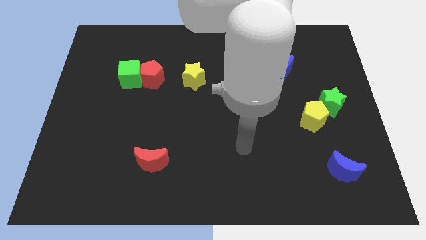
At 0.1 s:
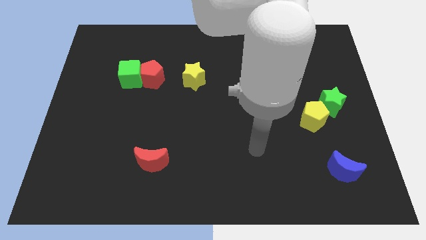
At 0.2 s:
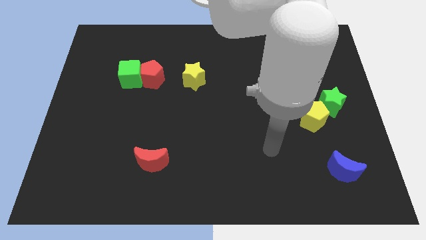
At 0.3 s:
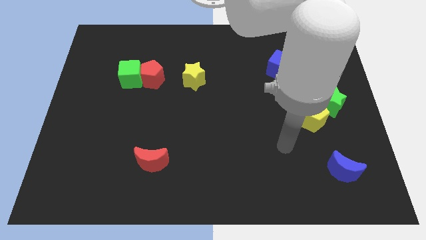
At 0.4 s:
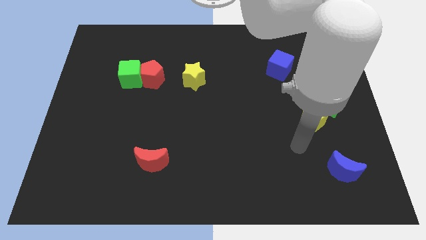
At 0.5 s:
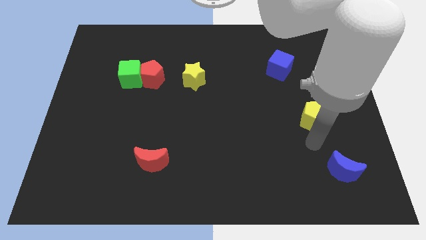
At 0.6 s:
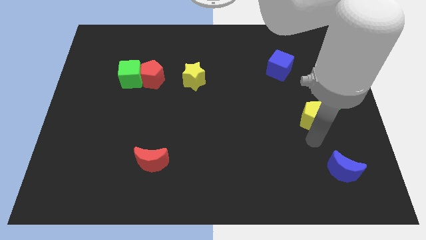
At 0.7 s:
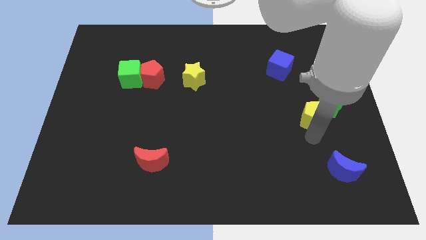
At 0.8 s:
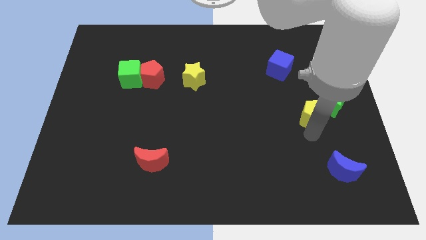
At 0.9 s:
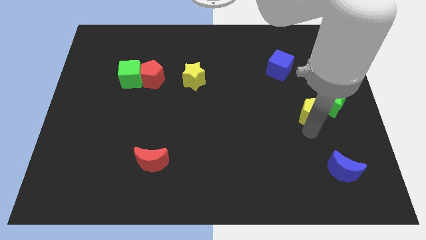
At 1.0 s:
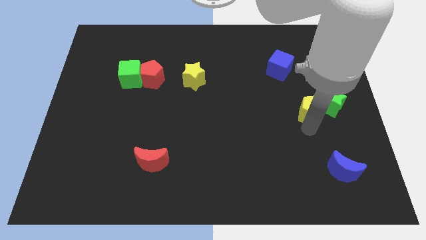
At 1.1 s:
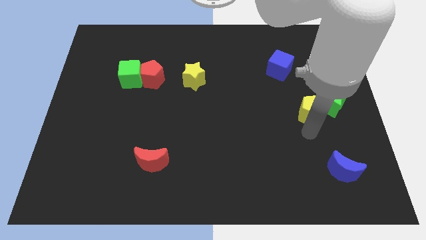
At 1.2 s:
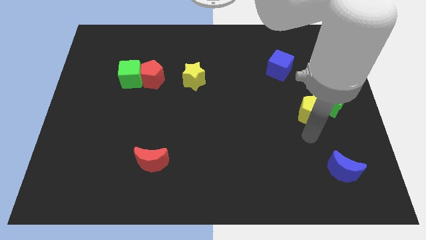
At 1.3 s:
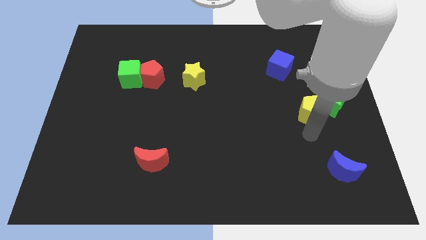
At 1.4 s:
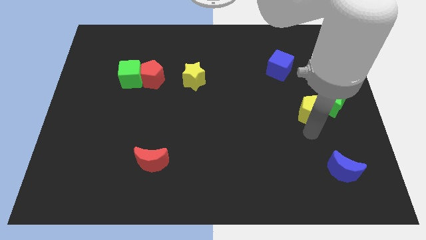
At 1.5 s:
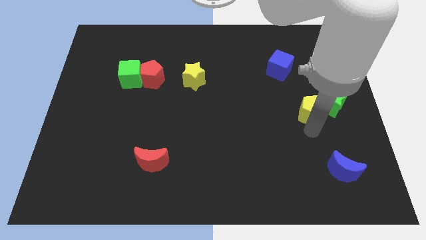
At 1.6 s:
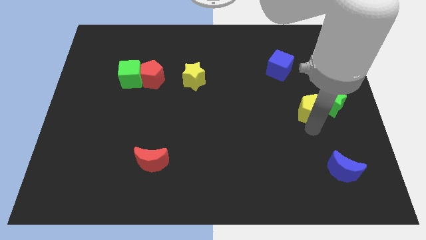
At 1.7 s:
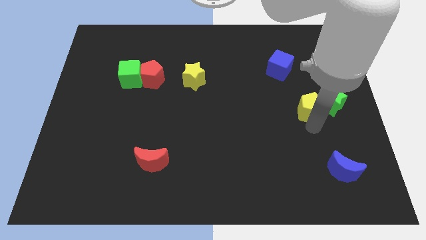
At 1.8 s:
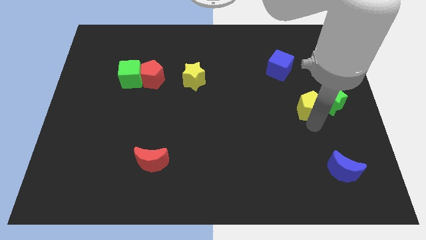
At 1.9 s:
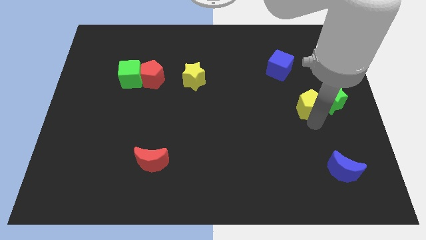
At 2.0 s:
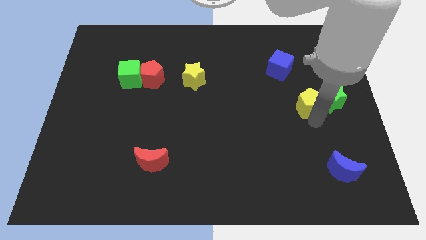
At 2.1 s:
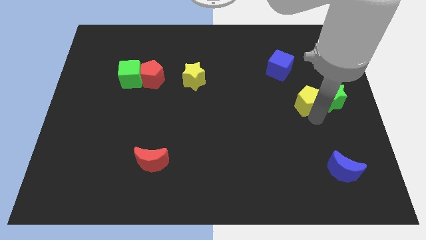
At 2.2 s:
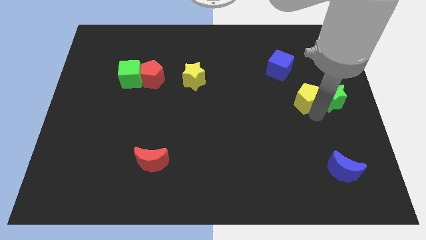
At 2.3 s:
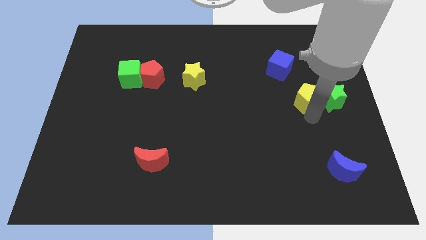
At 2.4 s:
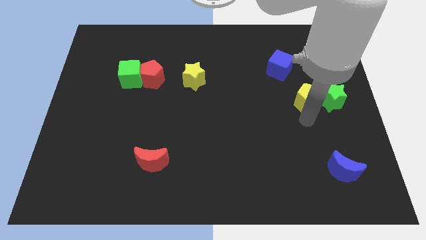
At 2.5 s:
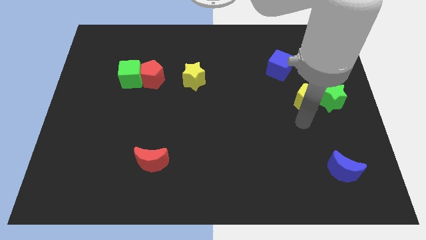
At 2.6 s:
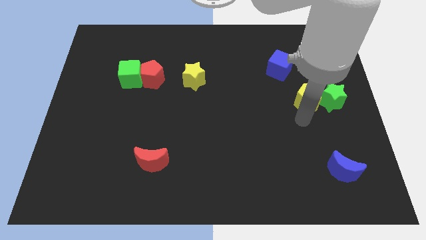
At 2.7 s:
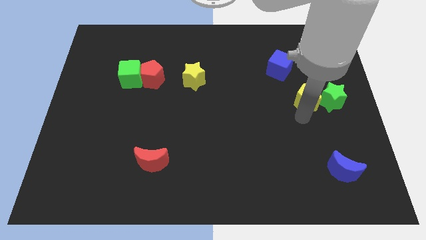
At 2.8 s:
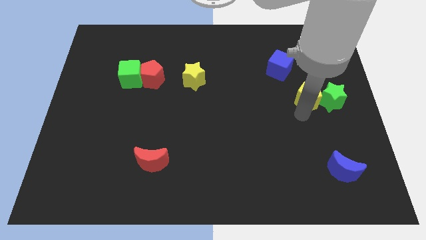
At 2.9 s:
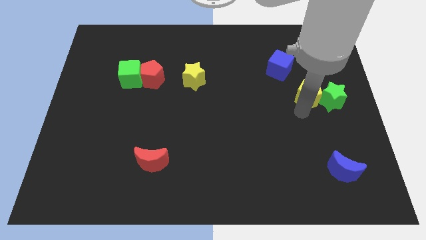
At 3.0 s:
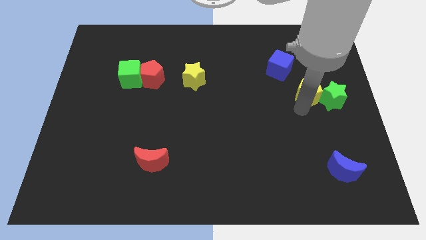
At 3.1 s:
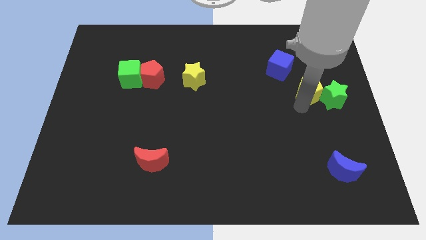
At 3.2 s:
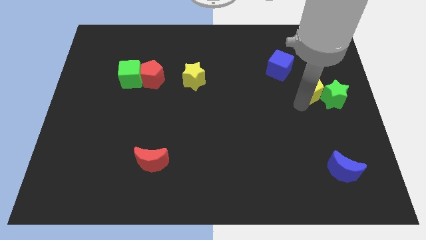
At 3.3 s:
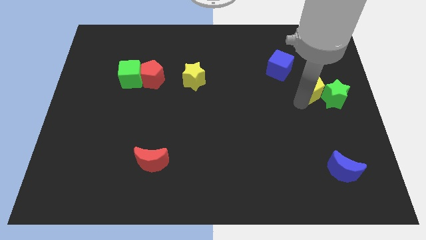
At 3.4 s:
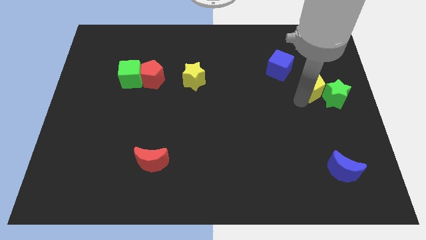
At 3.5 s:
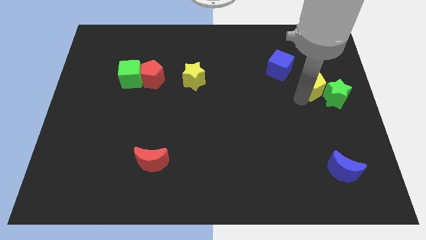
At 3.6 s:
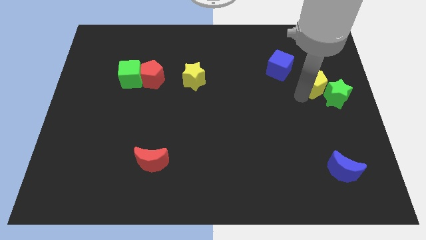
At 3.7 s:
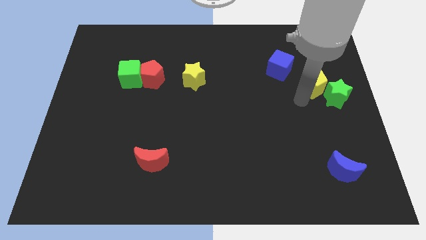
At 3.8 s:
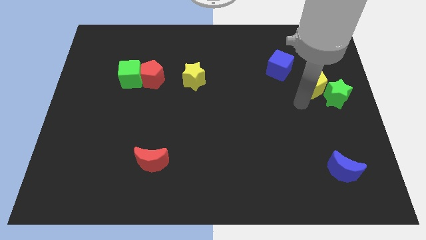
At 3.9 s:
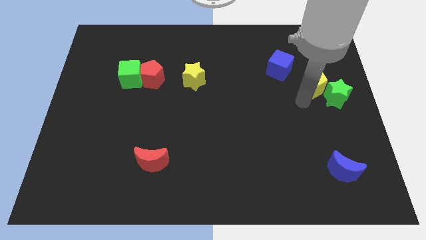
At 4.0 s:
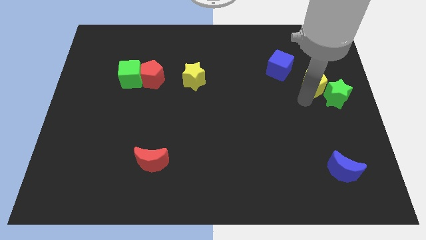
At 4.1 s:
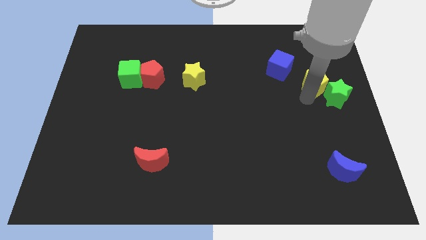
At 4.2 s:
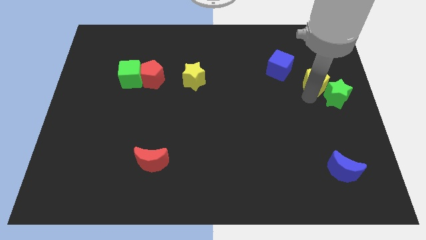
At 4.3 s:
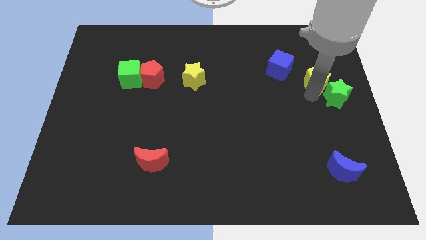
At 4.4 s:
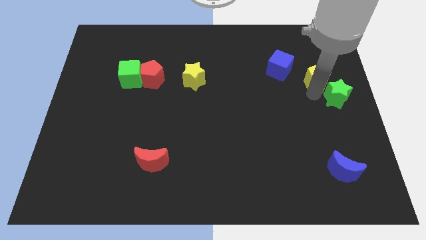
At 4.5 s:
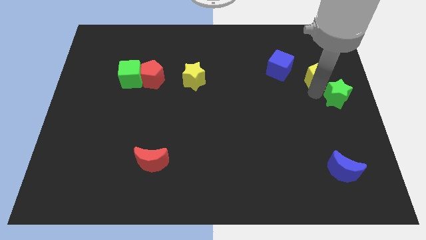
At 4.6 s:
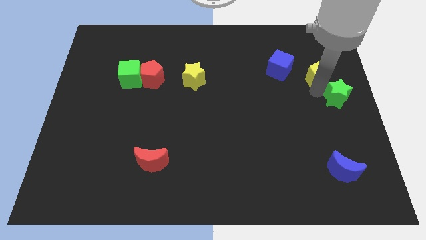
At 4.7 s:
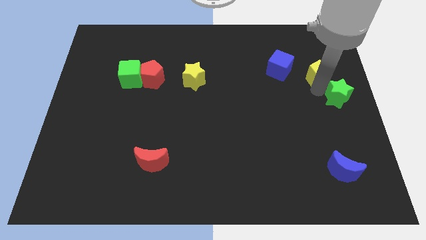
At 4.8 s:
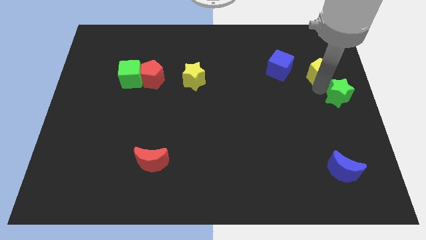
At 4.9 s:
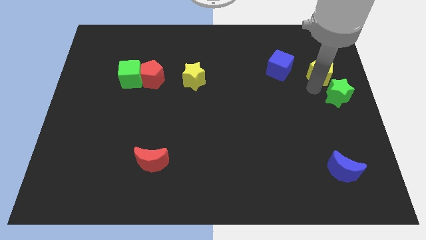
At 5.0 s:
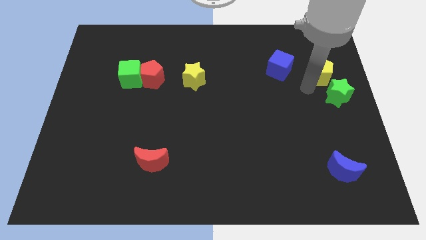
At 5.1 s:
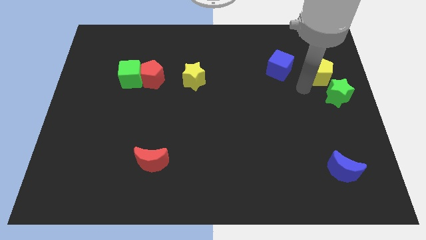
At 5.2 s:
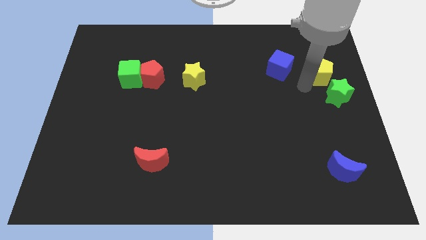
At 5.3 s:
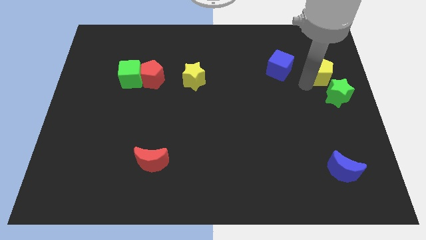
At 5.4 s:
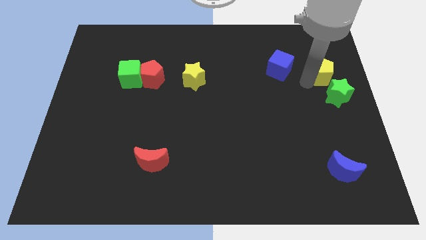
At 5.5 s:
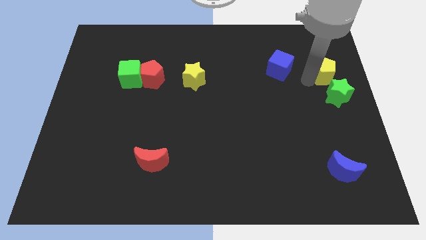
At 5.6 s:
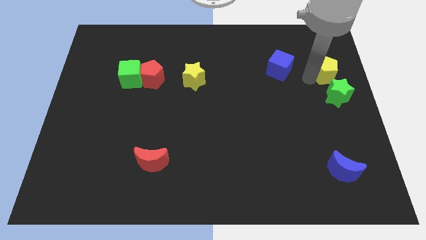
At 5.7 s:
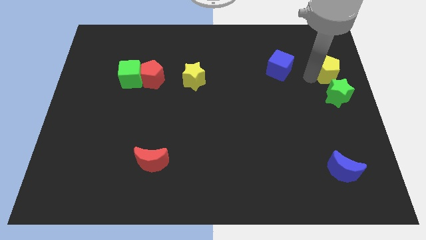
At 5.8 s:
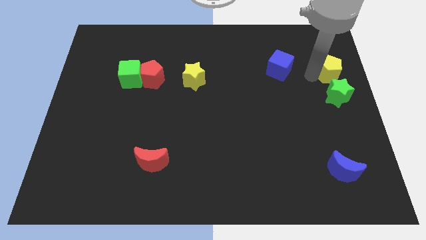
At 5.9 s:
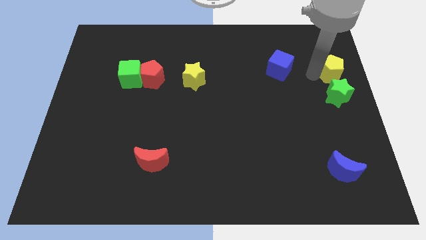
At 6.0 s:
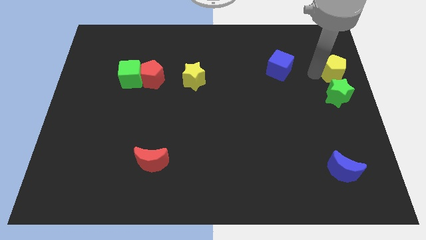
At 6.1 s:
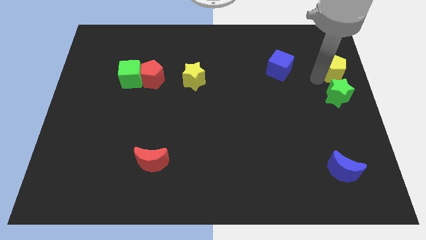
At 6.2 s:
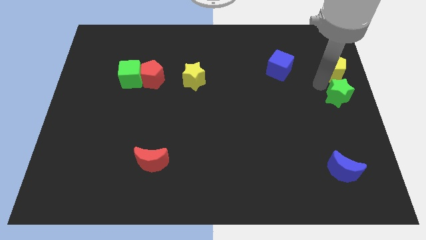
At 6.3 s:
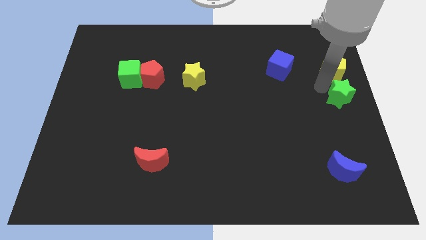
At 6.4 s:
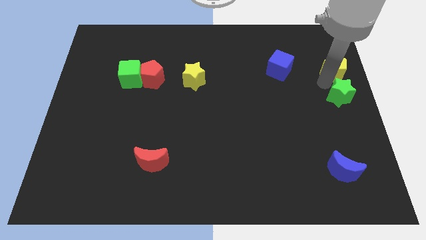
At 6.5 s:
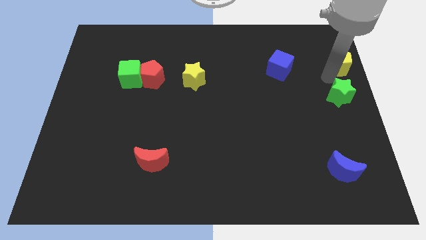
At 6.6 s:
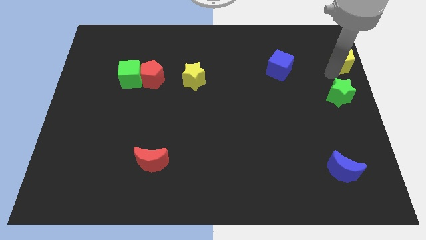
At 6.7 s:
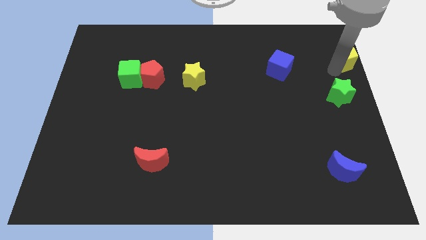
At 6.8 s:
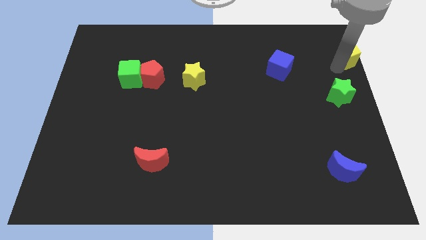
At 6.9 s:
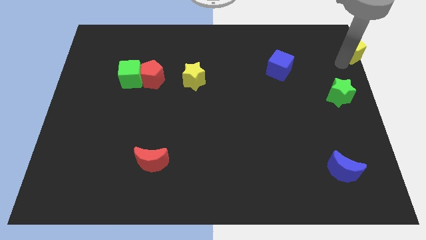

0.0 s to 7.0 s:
move the yellow pentagon to the upper right corner
